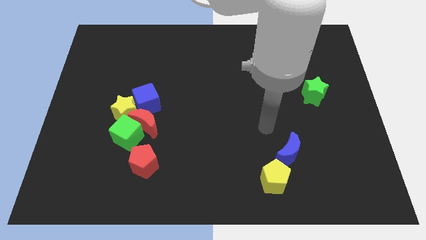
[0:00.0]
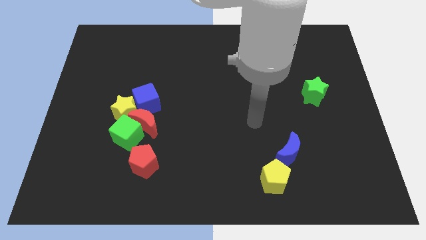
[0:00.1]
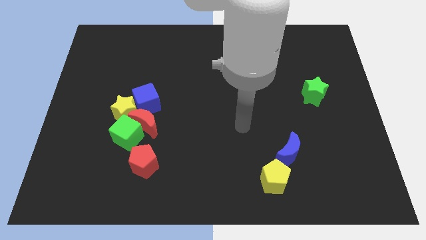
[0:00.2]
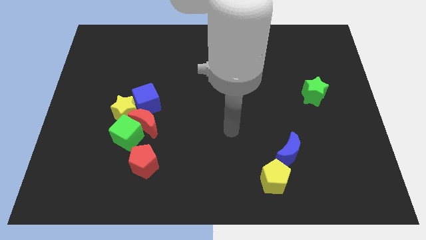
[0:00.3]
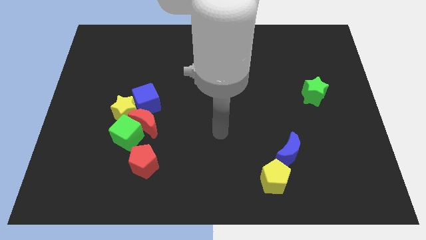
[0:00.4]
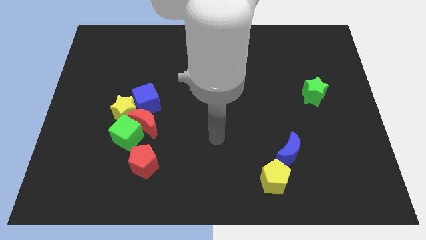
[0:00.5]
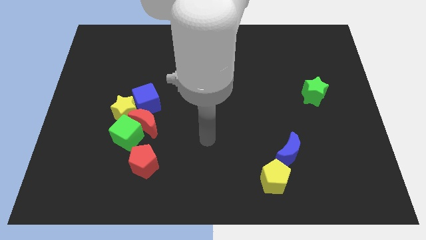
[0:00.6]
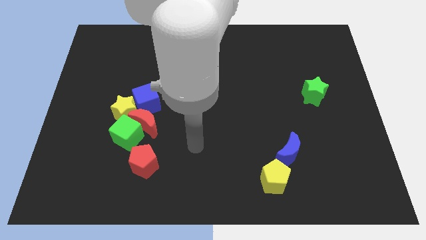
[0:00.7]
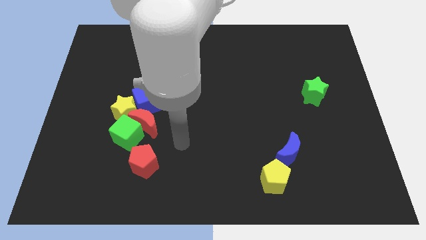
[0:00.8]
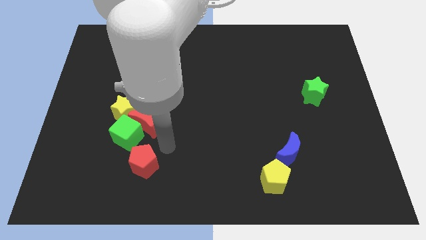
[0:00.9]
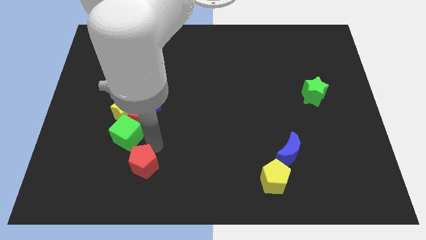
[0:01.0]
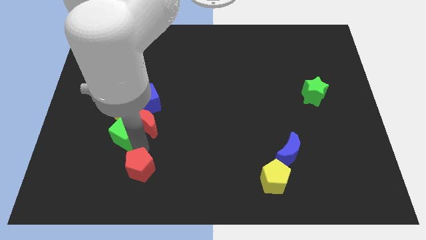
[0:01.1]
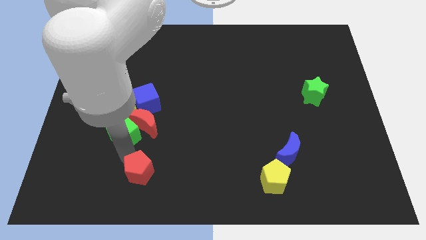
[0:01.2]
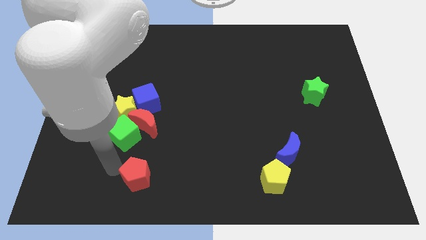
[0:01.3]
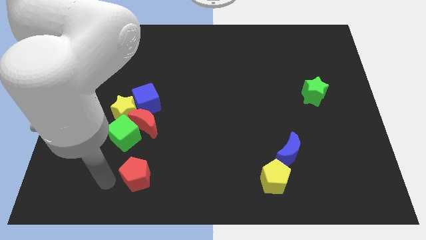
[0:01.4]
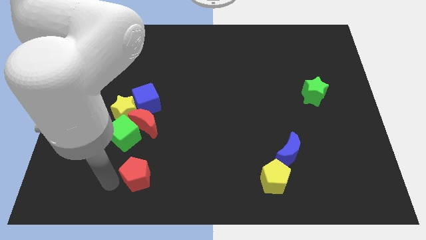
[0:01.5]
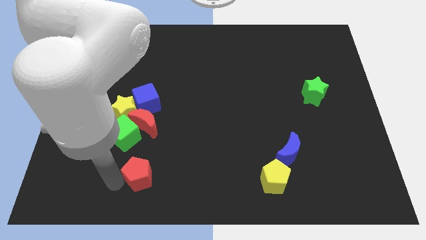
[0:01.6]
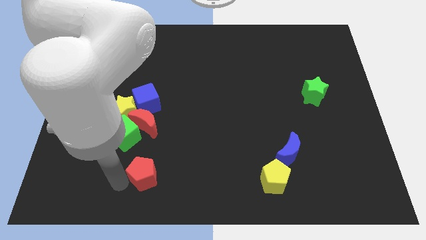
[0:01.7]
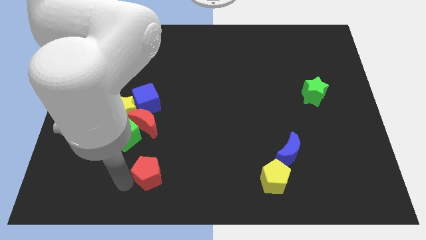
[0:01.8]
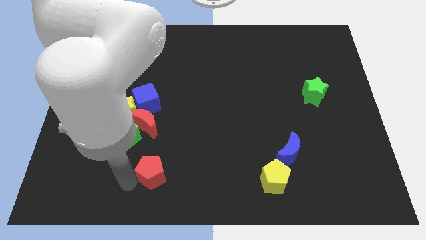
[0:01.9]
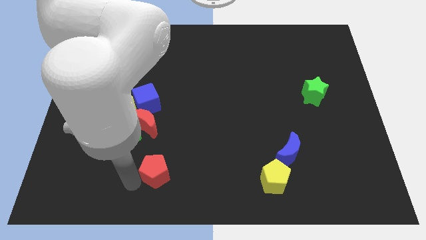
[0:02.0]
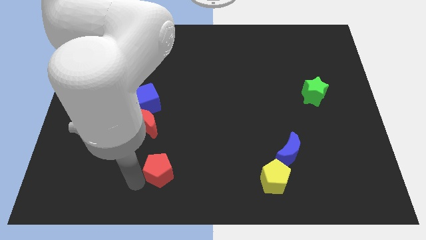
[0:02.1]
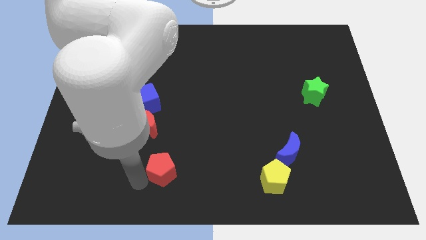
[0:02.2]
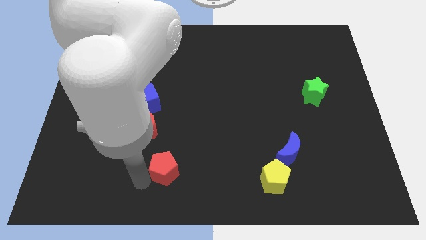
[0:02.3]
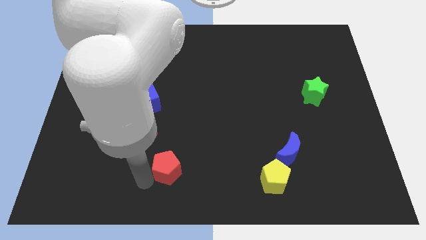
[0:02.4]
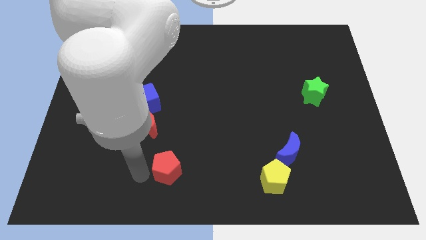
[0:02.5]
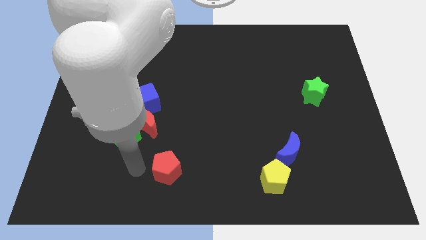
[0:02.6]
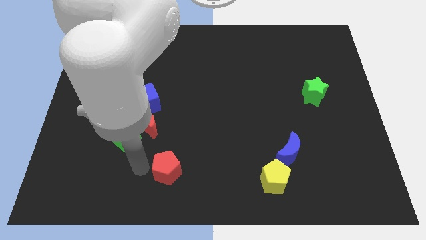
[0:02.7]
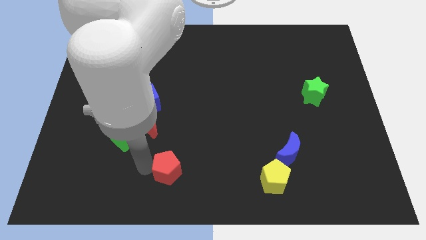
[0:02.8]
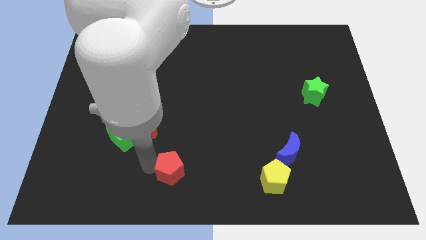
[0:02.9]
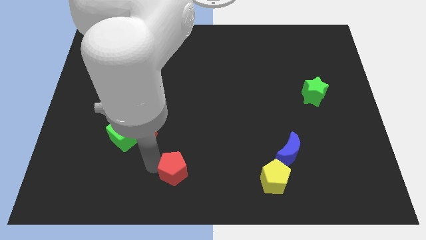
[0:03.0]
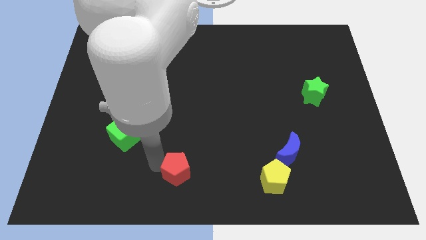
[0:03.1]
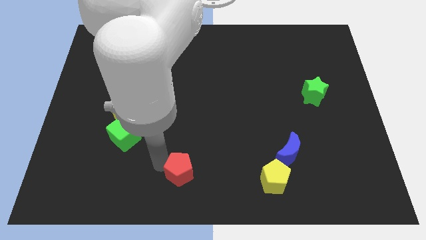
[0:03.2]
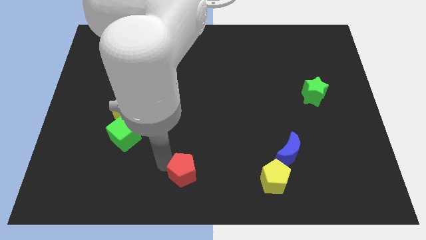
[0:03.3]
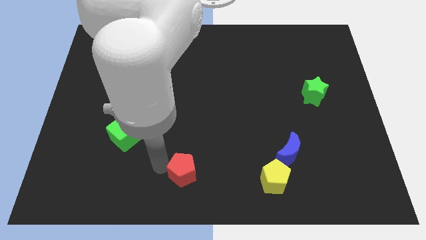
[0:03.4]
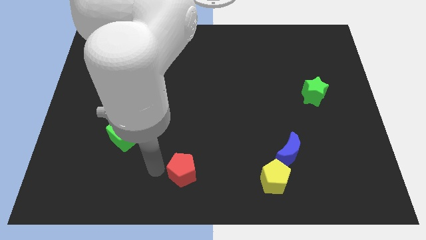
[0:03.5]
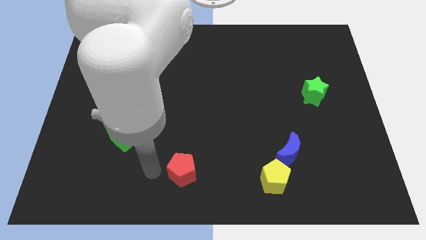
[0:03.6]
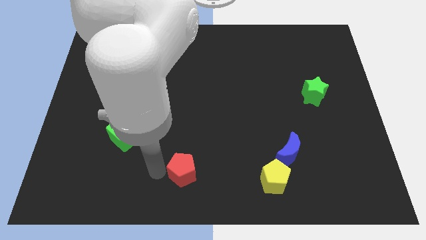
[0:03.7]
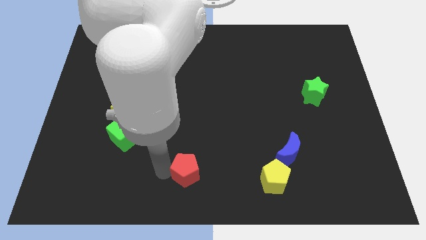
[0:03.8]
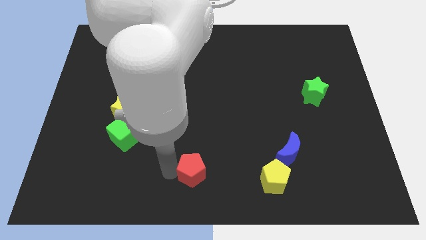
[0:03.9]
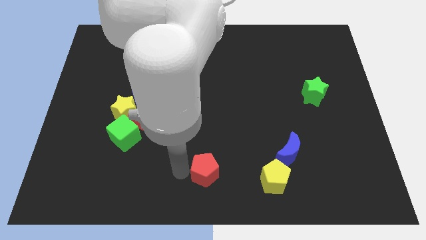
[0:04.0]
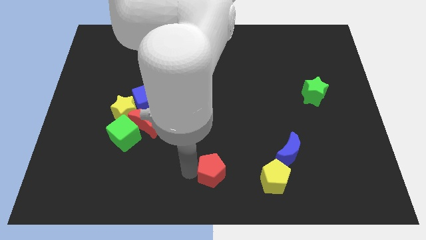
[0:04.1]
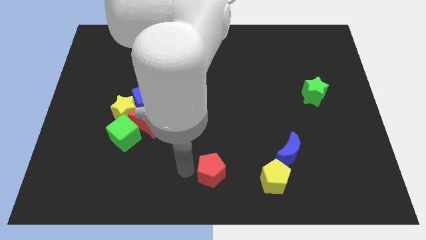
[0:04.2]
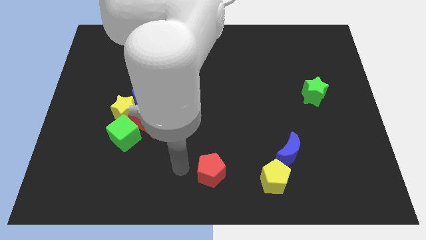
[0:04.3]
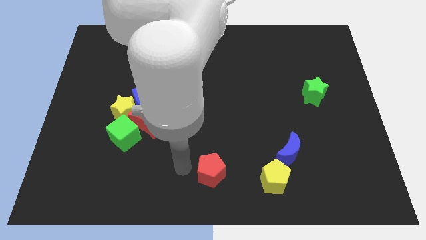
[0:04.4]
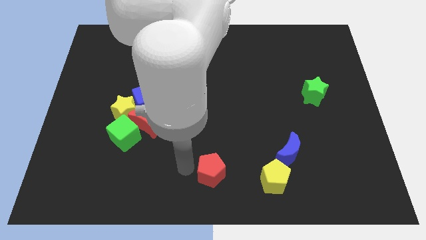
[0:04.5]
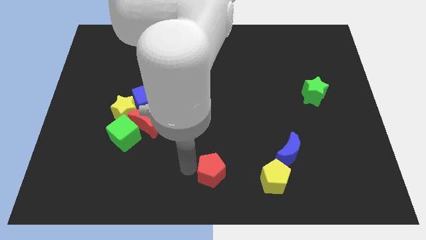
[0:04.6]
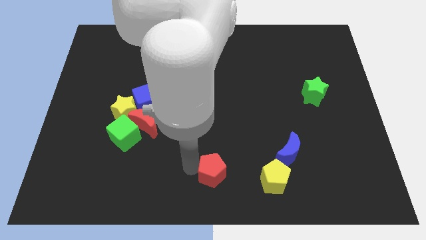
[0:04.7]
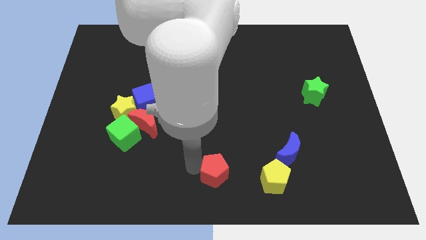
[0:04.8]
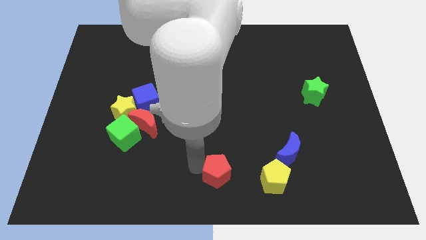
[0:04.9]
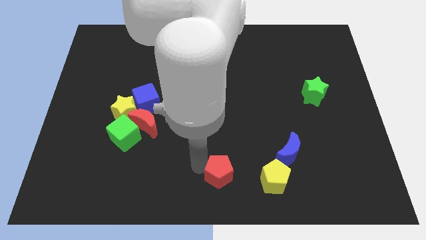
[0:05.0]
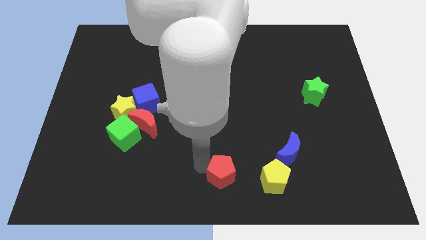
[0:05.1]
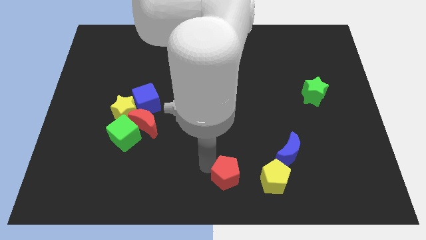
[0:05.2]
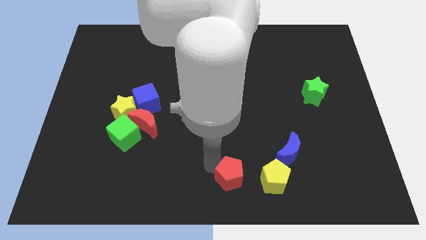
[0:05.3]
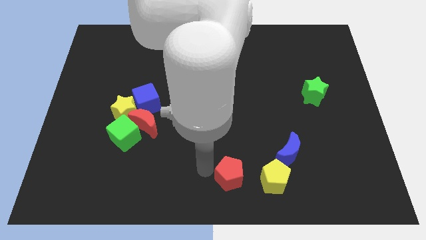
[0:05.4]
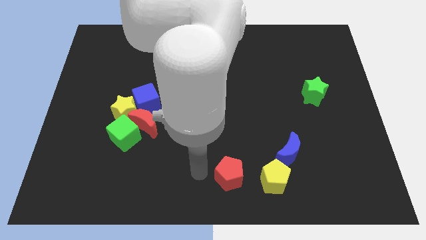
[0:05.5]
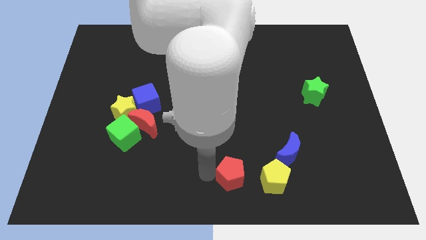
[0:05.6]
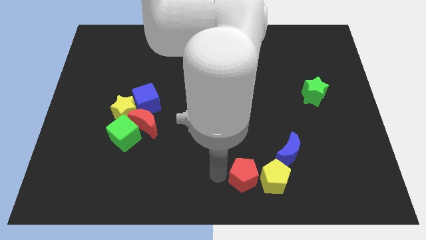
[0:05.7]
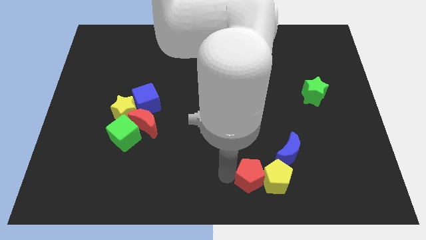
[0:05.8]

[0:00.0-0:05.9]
push the red pentagon close to the yellow pentagon

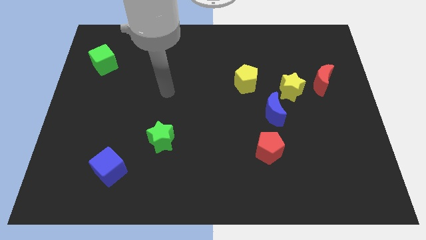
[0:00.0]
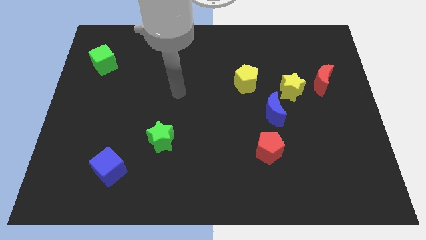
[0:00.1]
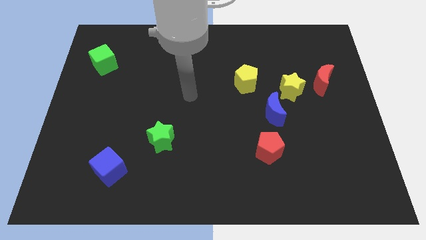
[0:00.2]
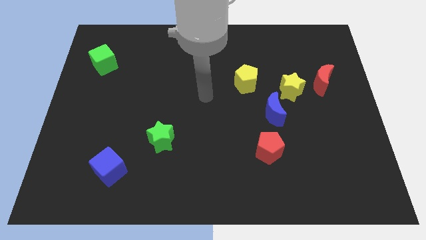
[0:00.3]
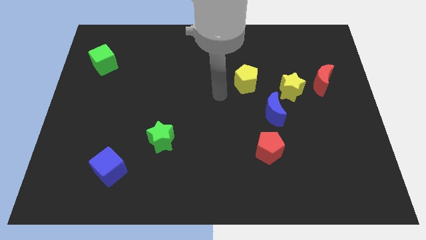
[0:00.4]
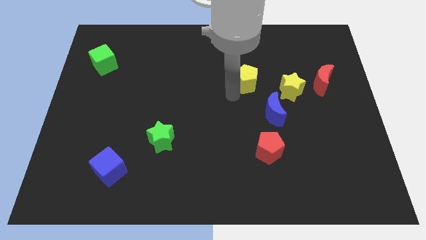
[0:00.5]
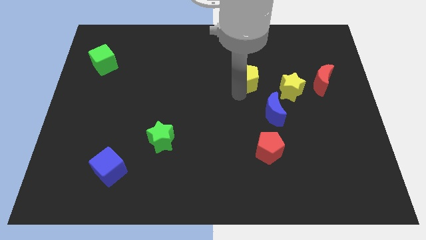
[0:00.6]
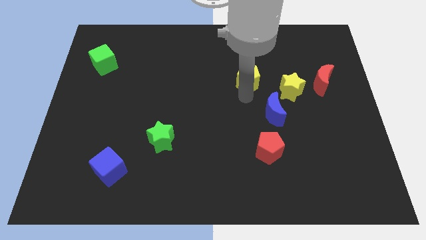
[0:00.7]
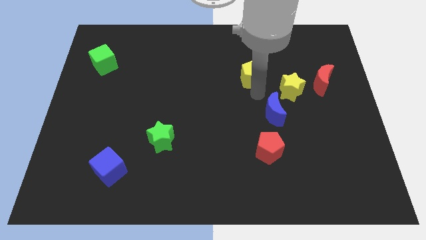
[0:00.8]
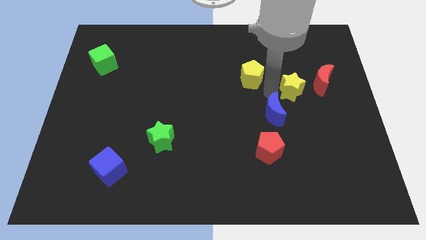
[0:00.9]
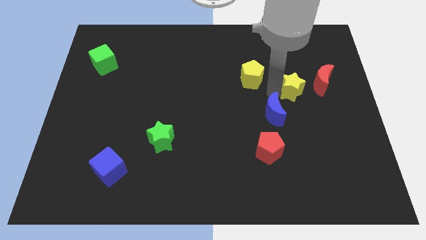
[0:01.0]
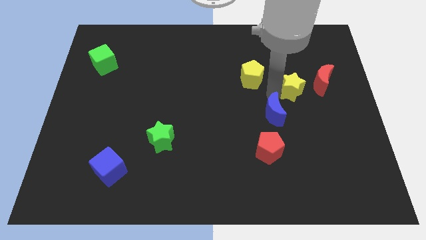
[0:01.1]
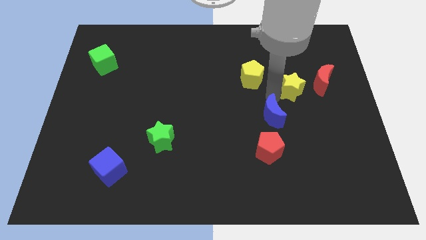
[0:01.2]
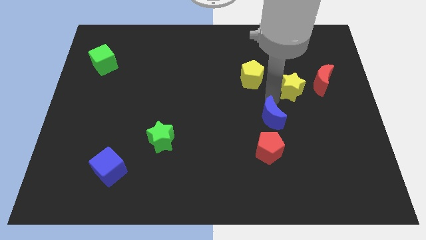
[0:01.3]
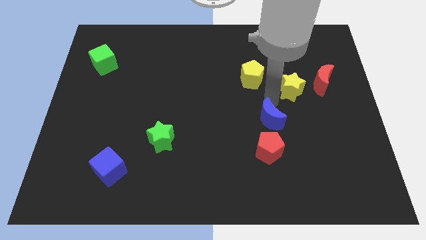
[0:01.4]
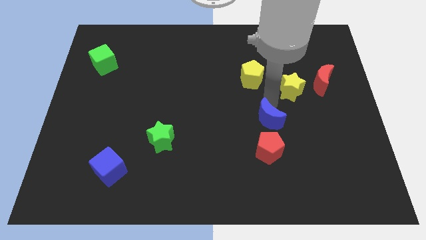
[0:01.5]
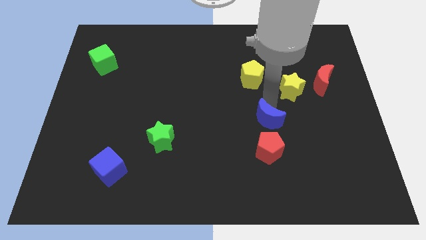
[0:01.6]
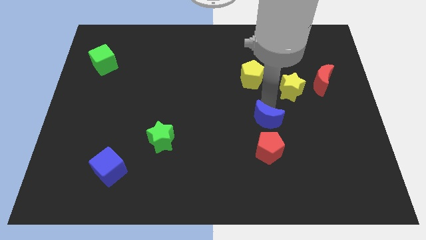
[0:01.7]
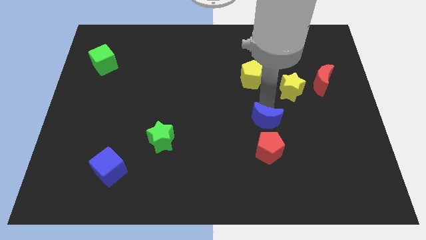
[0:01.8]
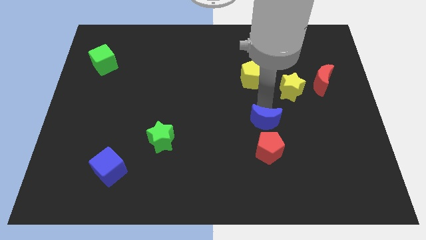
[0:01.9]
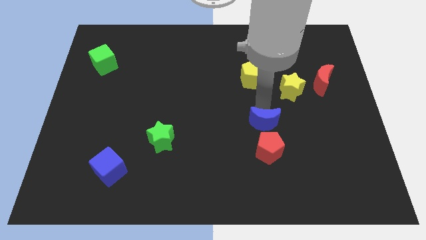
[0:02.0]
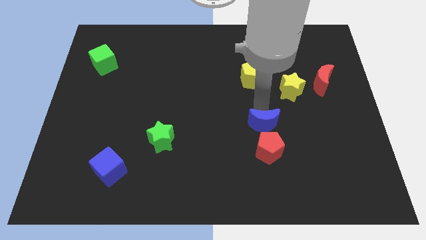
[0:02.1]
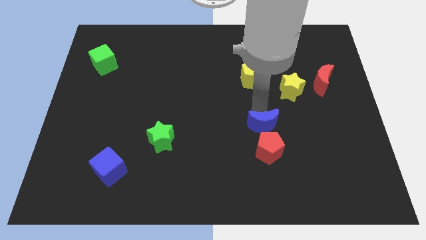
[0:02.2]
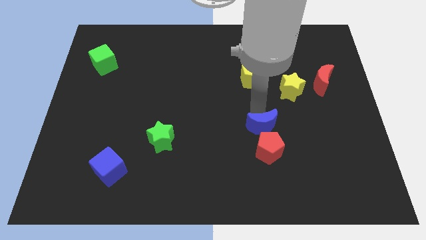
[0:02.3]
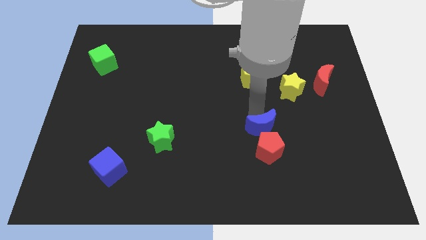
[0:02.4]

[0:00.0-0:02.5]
slide the blue moon towards the red pentagon
